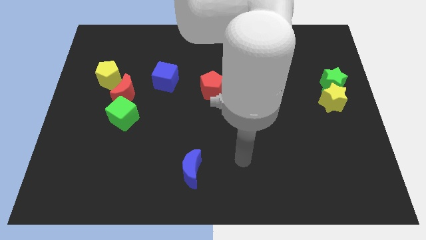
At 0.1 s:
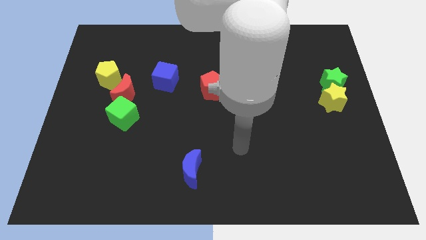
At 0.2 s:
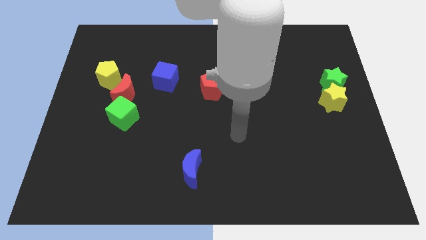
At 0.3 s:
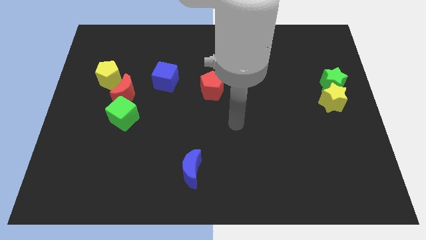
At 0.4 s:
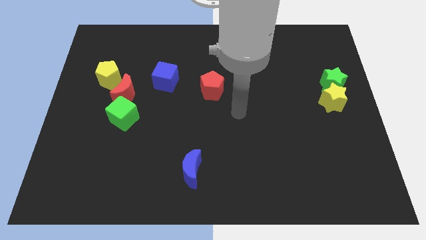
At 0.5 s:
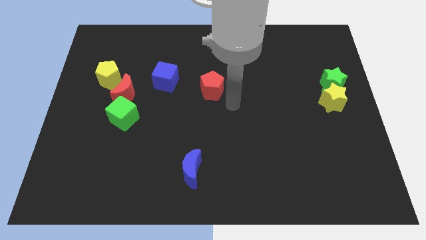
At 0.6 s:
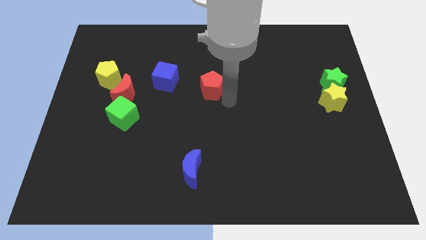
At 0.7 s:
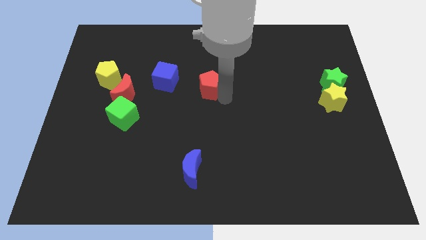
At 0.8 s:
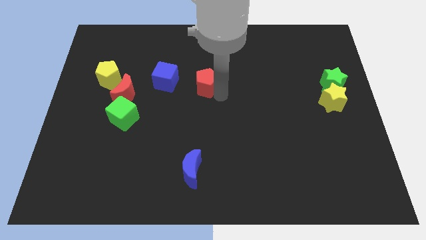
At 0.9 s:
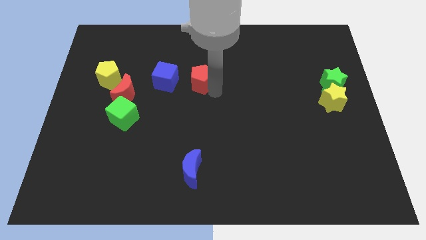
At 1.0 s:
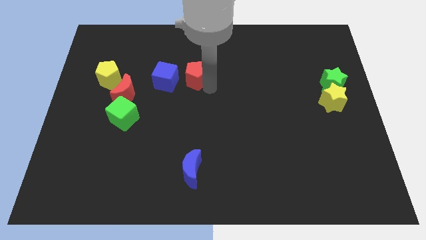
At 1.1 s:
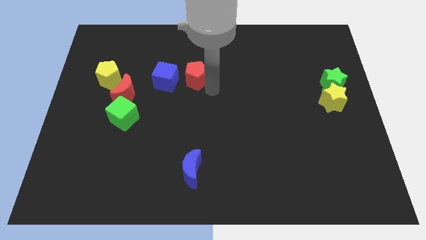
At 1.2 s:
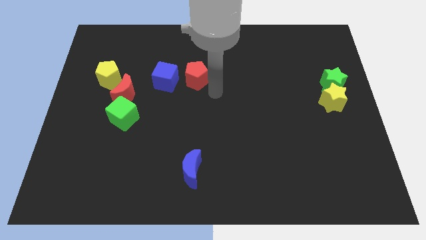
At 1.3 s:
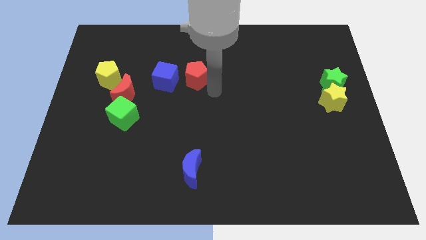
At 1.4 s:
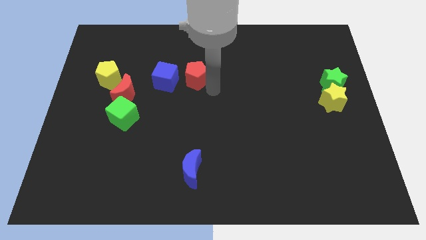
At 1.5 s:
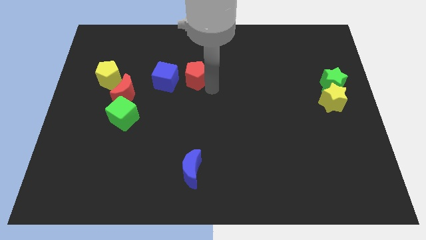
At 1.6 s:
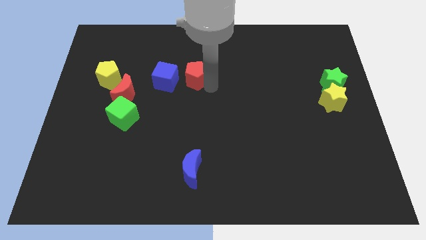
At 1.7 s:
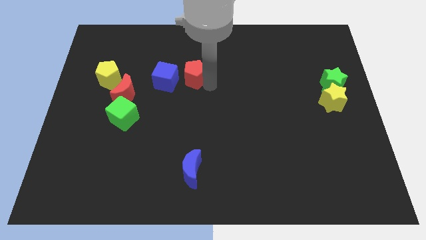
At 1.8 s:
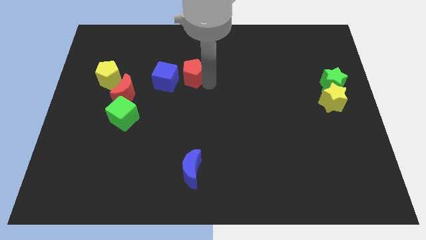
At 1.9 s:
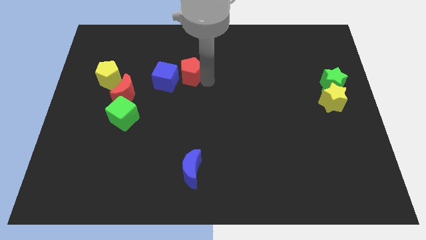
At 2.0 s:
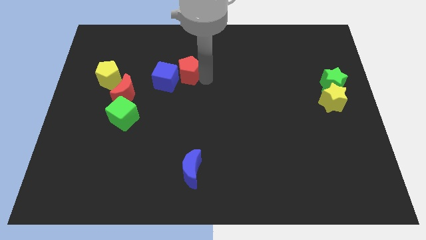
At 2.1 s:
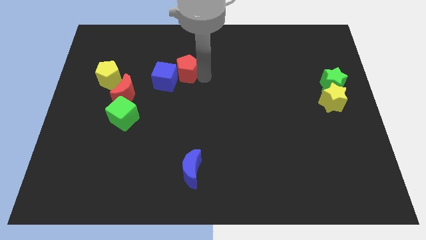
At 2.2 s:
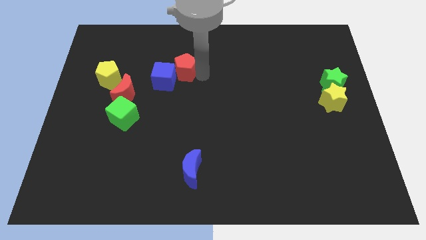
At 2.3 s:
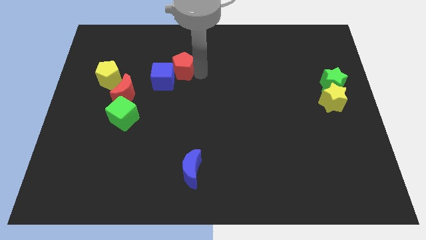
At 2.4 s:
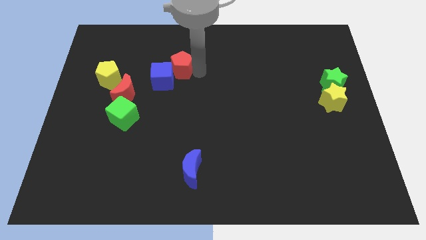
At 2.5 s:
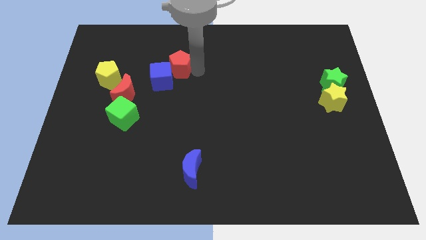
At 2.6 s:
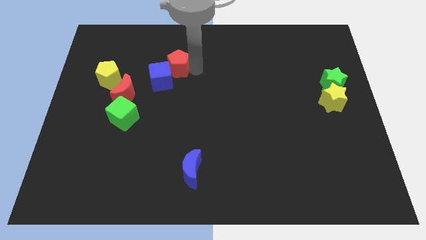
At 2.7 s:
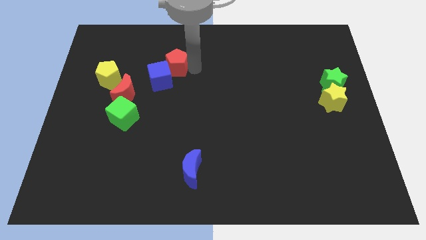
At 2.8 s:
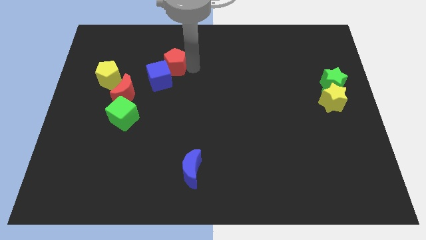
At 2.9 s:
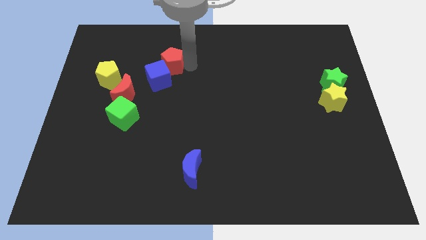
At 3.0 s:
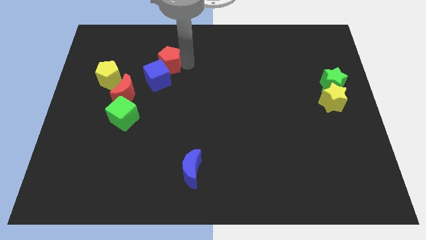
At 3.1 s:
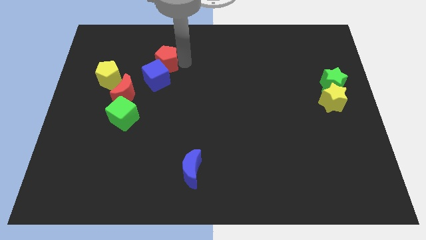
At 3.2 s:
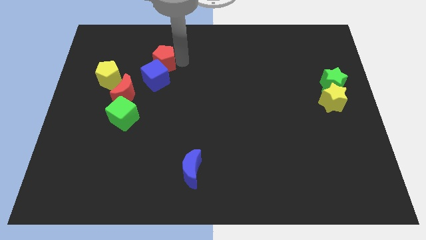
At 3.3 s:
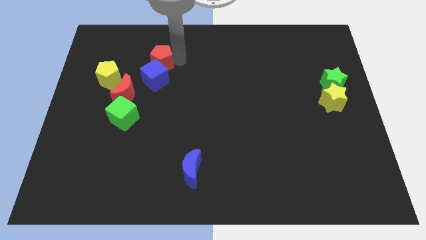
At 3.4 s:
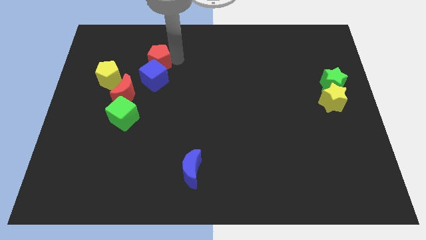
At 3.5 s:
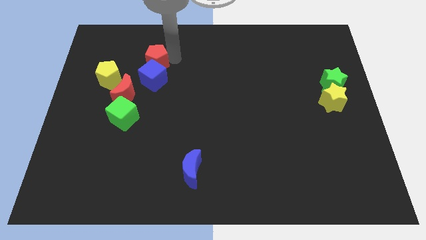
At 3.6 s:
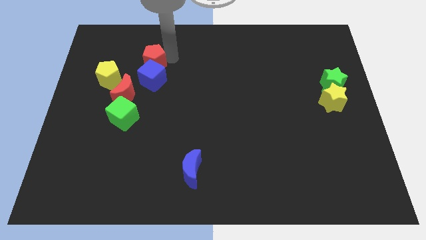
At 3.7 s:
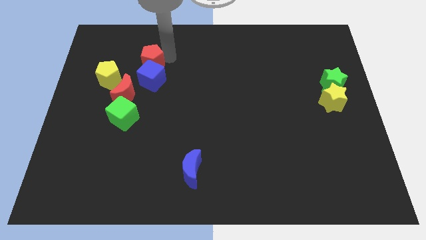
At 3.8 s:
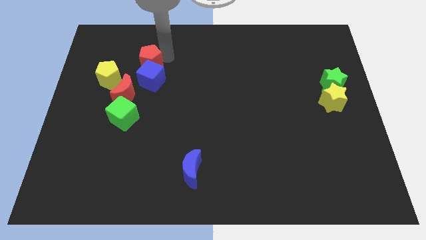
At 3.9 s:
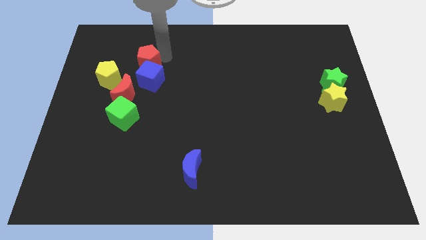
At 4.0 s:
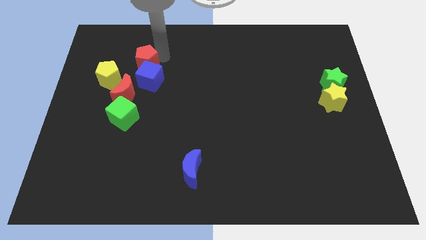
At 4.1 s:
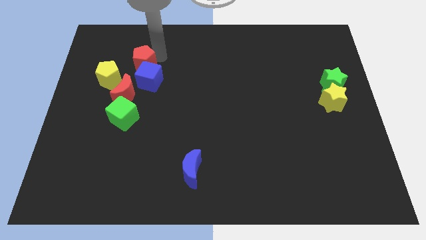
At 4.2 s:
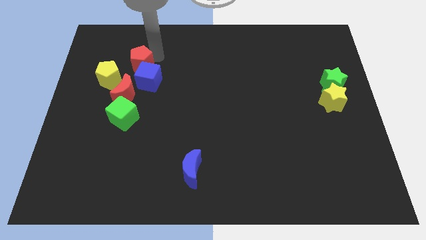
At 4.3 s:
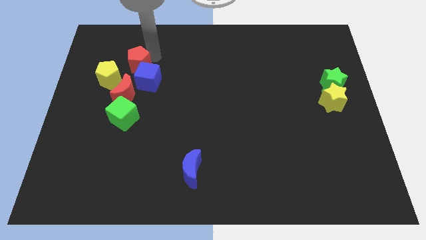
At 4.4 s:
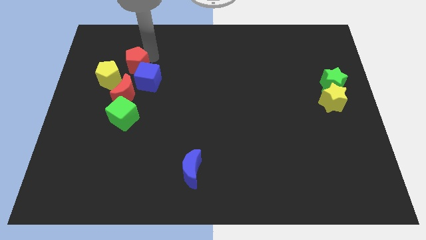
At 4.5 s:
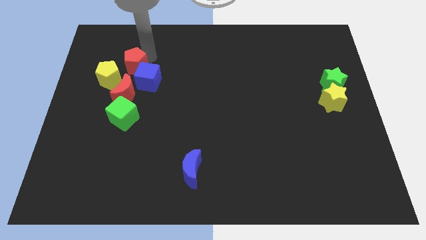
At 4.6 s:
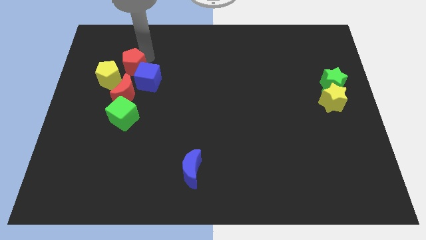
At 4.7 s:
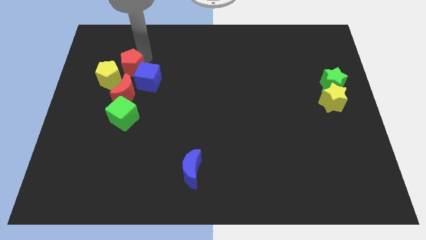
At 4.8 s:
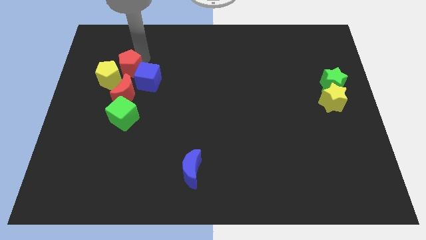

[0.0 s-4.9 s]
put the red pentagon to the yellow pentagon

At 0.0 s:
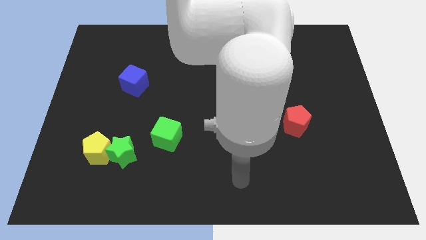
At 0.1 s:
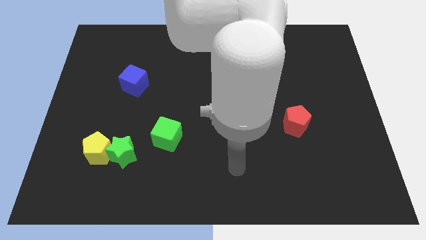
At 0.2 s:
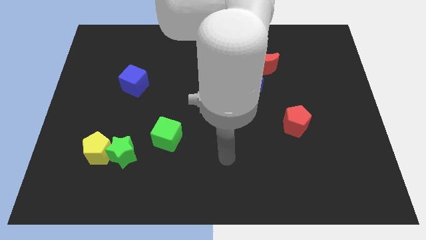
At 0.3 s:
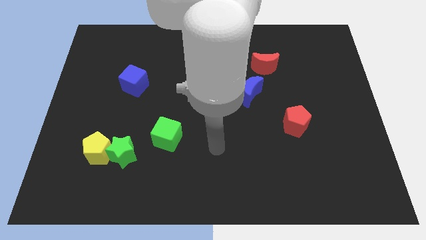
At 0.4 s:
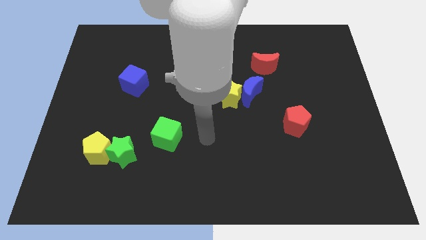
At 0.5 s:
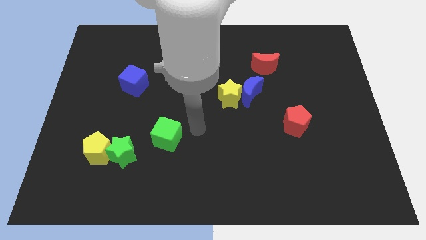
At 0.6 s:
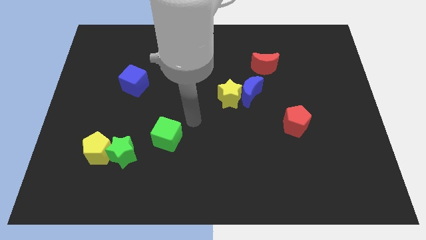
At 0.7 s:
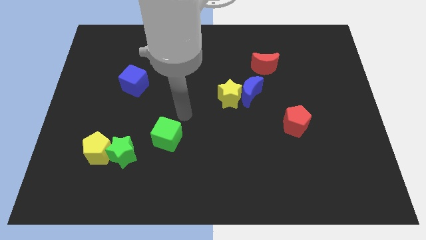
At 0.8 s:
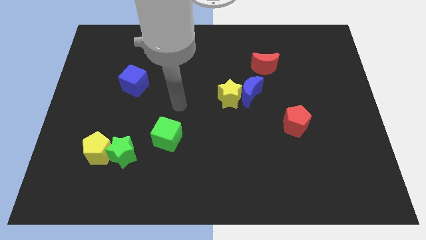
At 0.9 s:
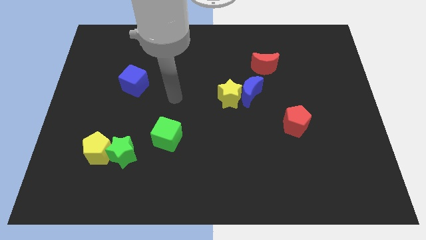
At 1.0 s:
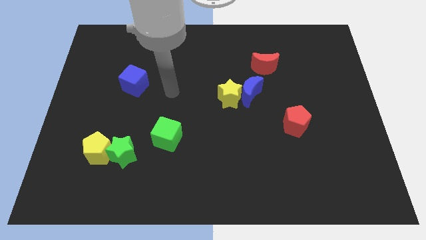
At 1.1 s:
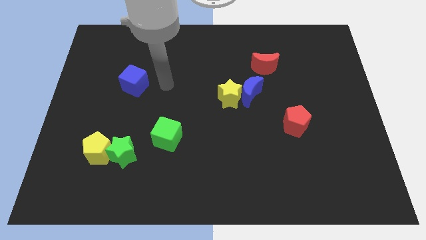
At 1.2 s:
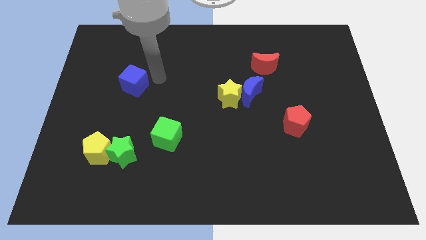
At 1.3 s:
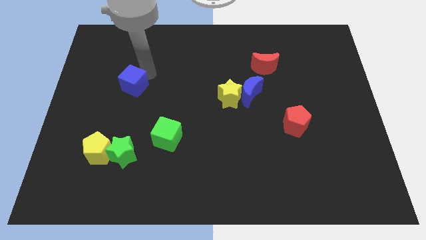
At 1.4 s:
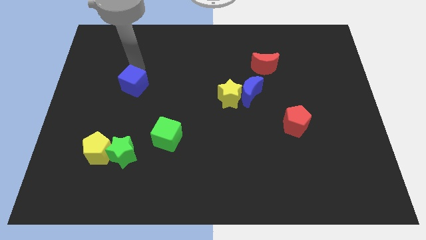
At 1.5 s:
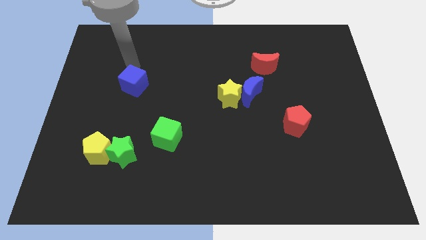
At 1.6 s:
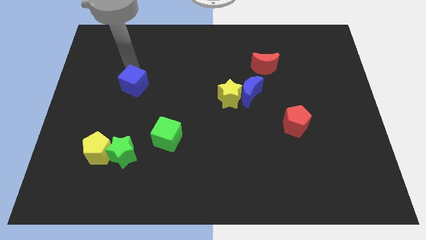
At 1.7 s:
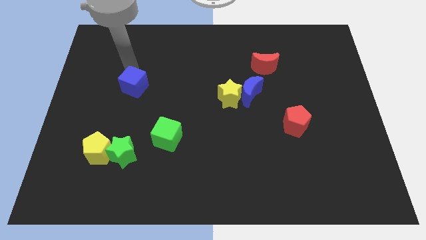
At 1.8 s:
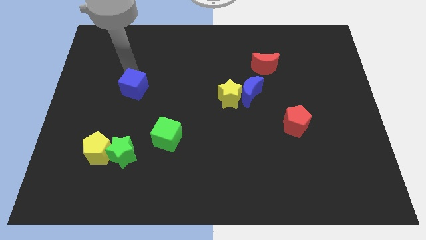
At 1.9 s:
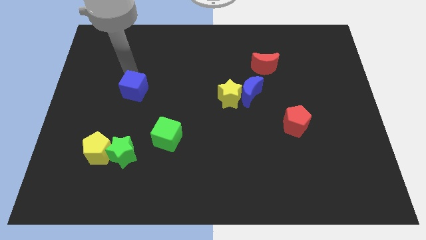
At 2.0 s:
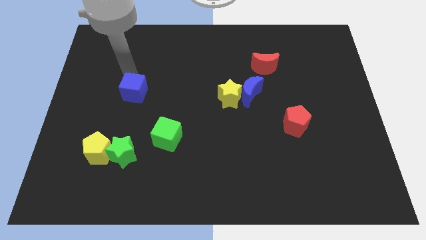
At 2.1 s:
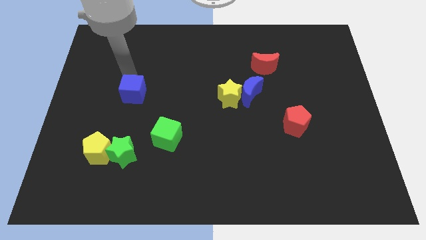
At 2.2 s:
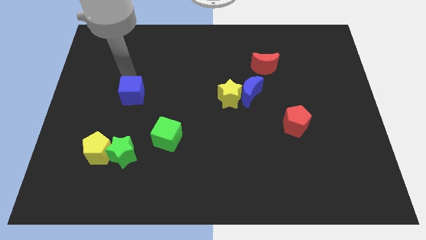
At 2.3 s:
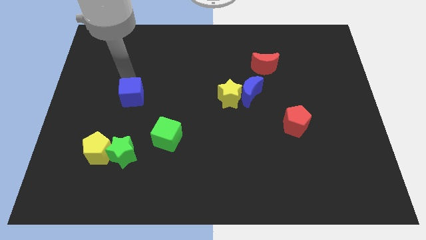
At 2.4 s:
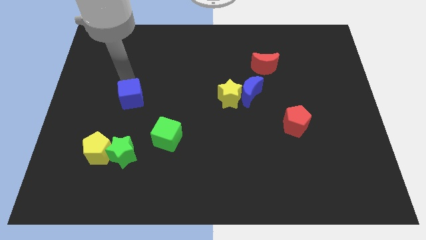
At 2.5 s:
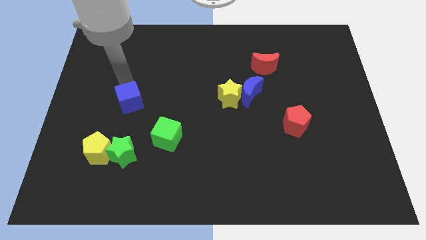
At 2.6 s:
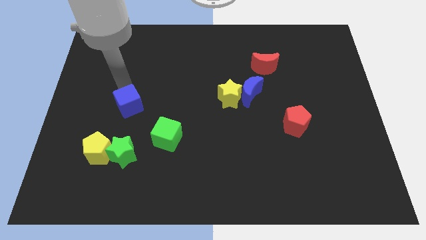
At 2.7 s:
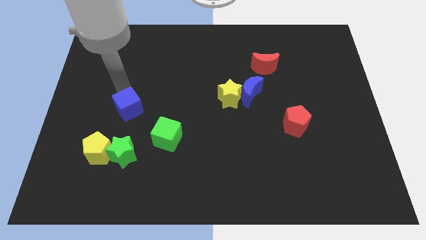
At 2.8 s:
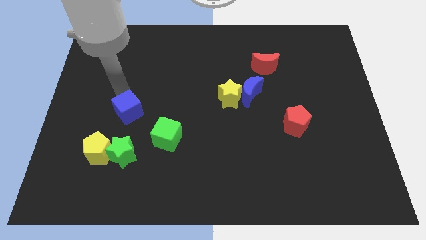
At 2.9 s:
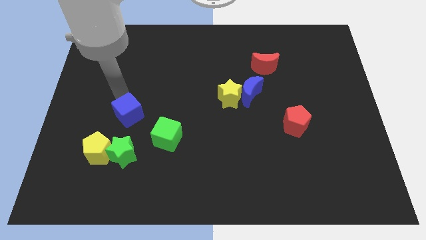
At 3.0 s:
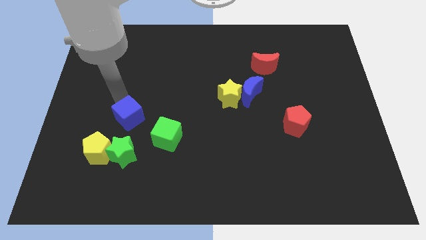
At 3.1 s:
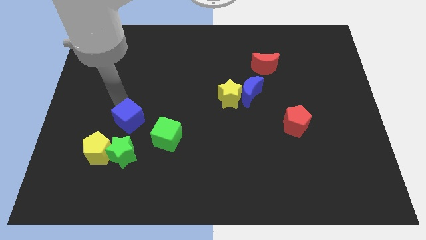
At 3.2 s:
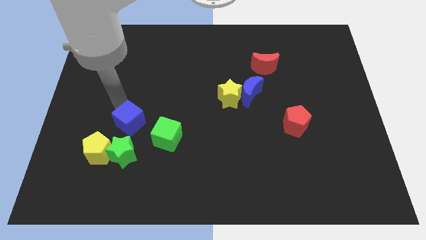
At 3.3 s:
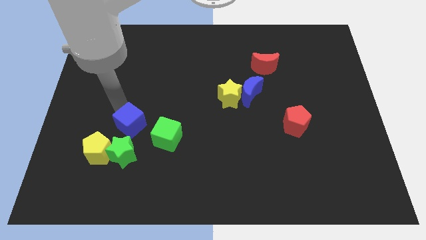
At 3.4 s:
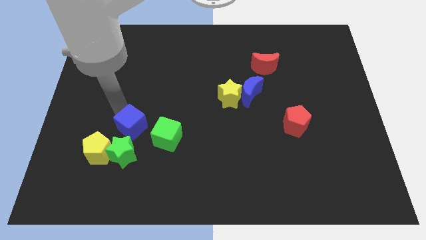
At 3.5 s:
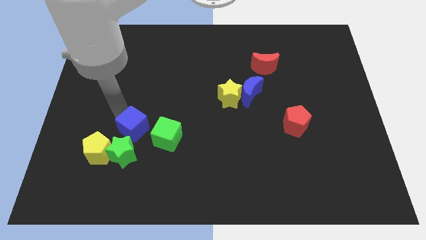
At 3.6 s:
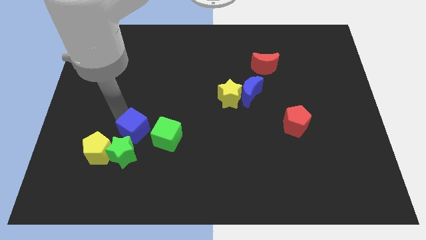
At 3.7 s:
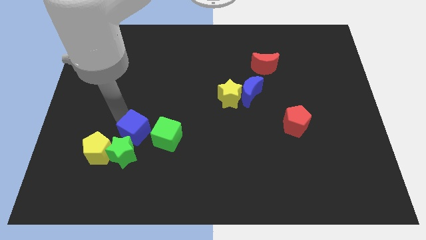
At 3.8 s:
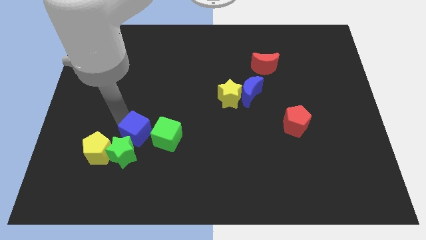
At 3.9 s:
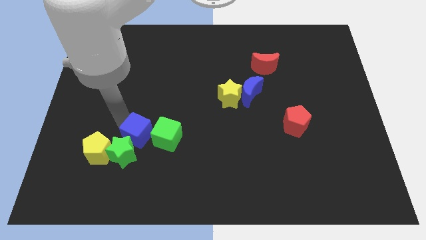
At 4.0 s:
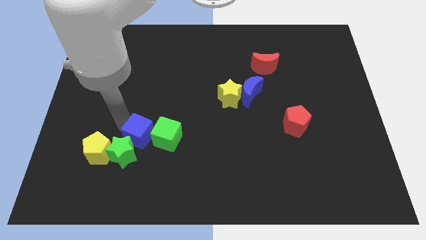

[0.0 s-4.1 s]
push the blue cube to the green cube
